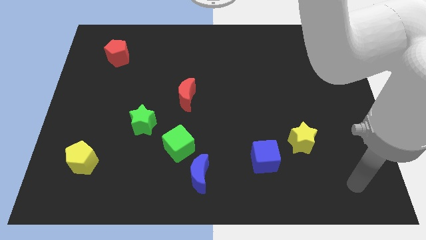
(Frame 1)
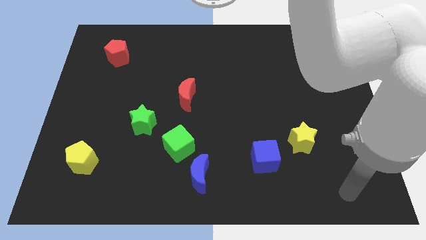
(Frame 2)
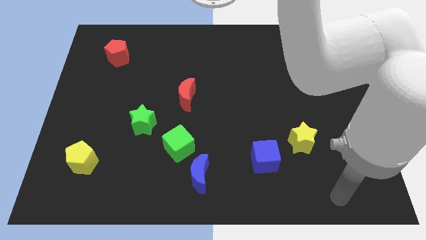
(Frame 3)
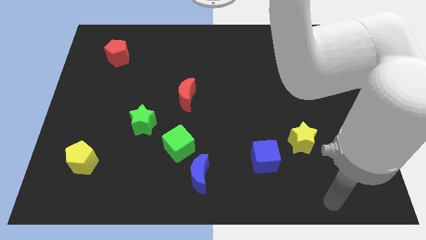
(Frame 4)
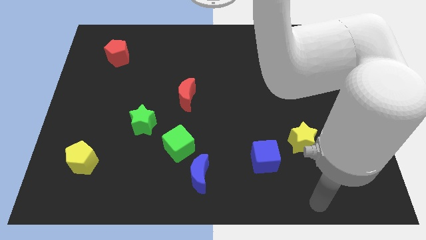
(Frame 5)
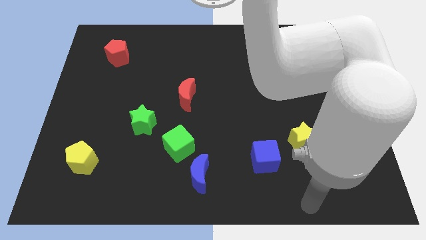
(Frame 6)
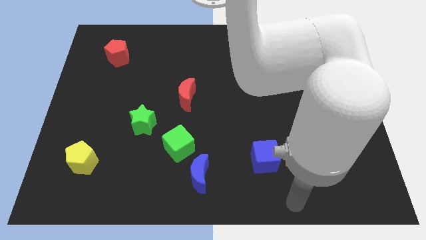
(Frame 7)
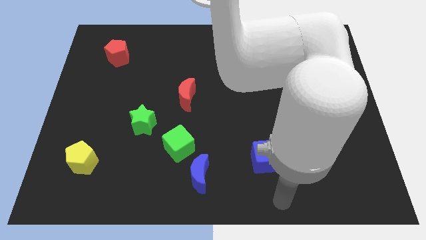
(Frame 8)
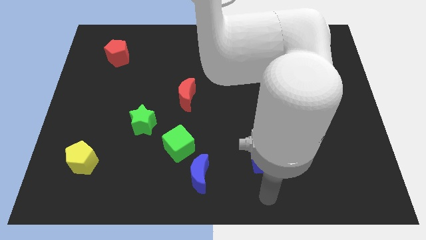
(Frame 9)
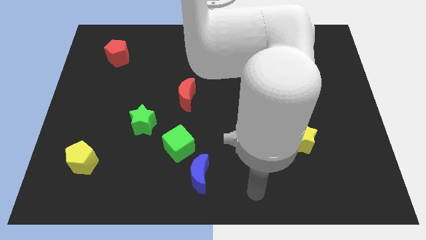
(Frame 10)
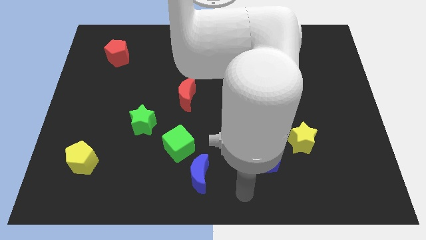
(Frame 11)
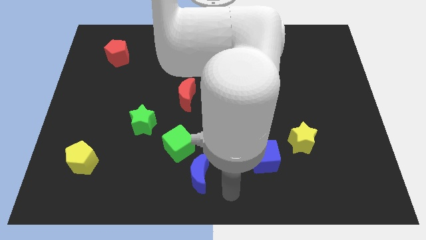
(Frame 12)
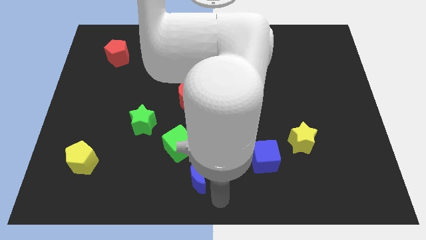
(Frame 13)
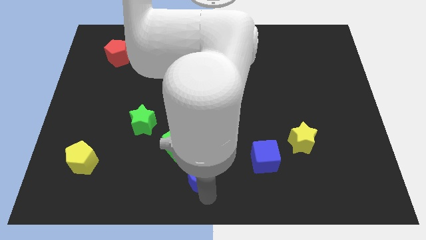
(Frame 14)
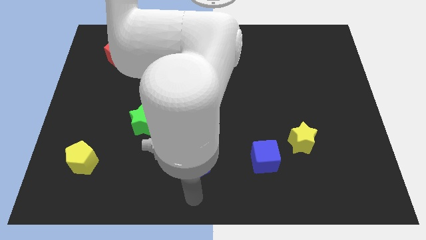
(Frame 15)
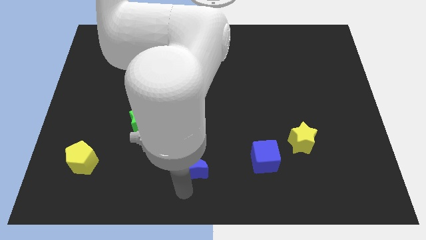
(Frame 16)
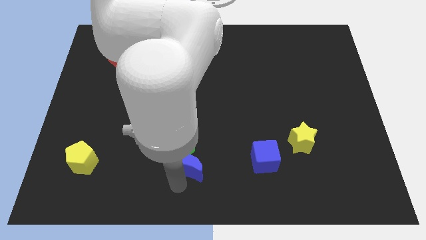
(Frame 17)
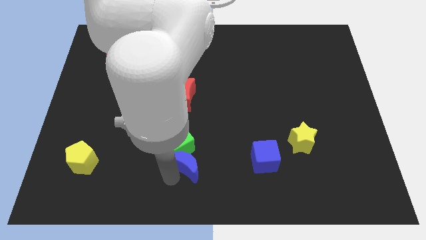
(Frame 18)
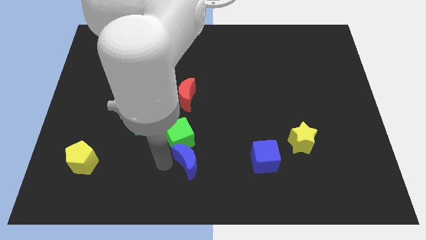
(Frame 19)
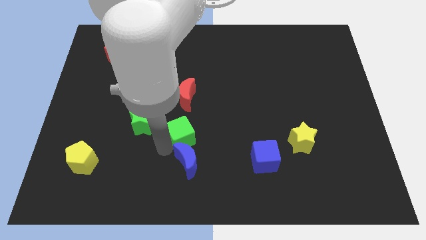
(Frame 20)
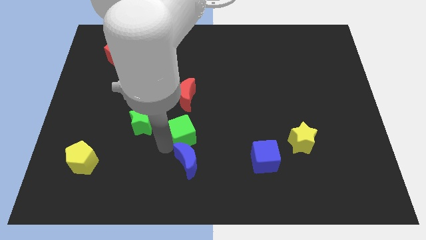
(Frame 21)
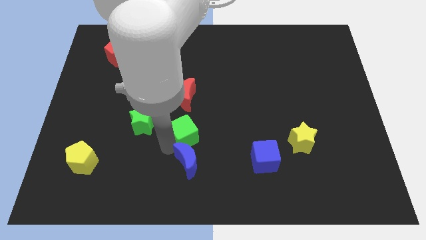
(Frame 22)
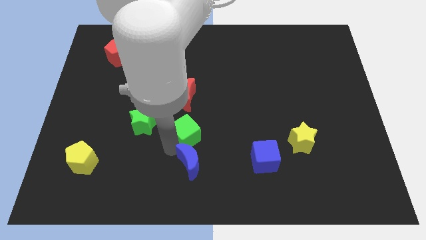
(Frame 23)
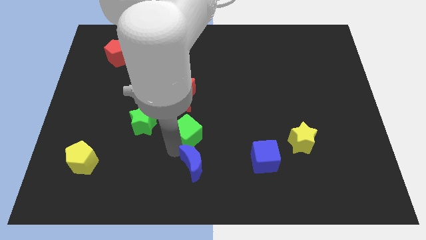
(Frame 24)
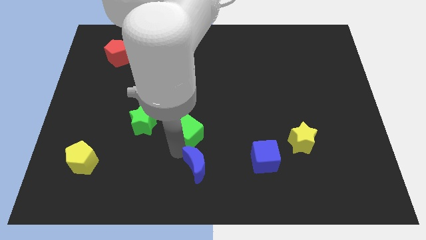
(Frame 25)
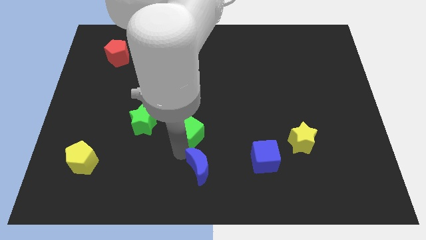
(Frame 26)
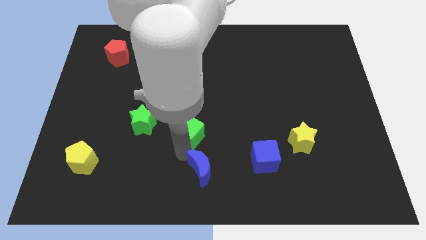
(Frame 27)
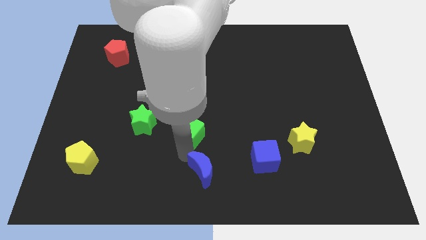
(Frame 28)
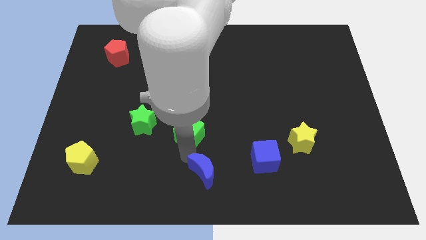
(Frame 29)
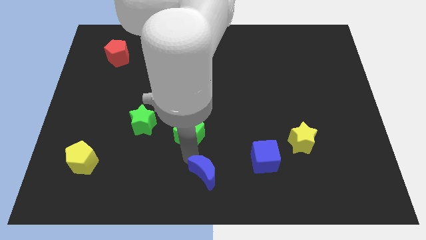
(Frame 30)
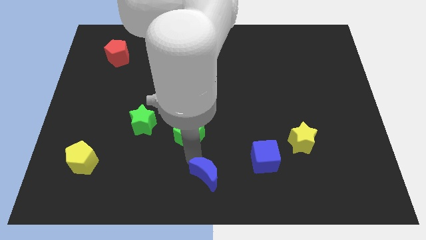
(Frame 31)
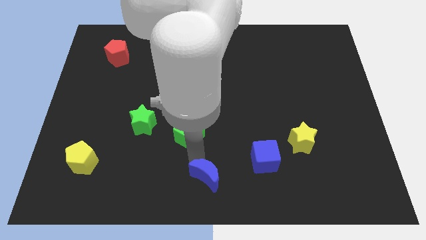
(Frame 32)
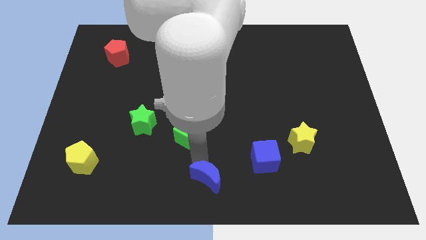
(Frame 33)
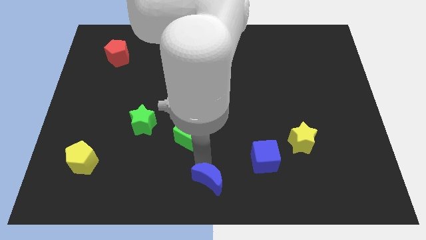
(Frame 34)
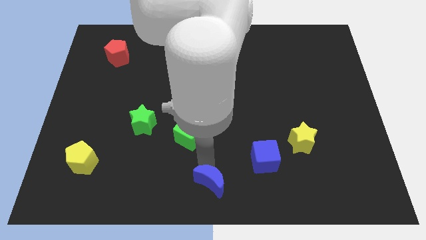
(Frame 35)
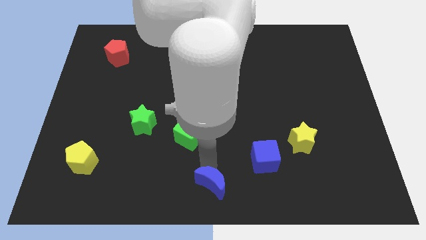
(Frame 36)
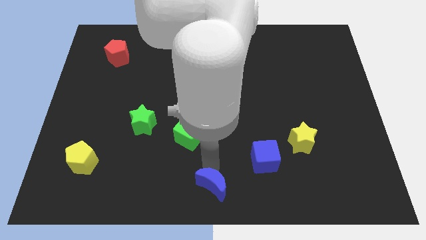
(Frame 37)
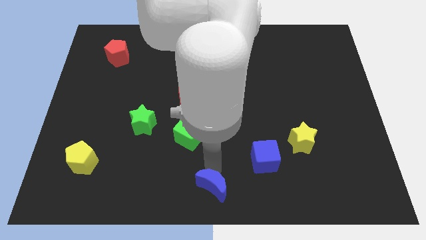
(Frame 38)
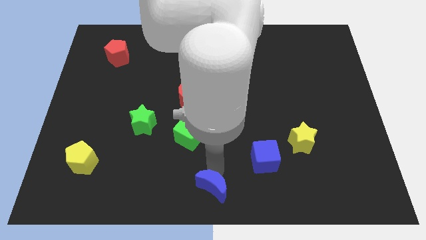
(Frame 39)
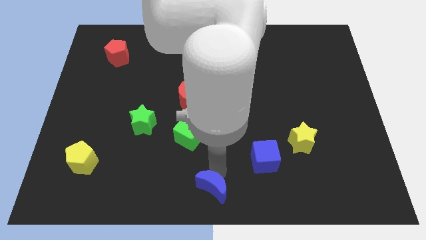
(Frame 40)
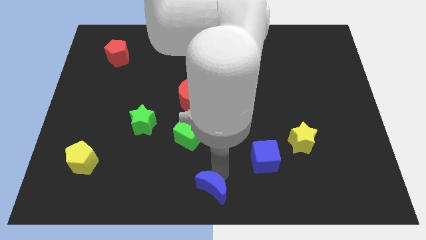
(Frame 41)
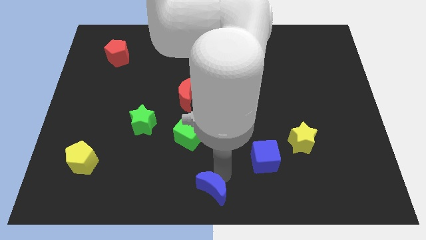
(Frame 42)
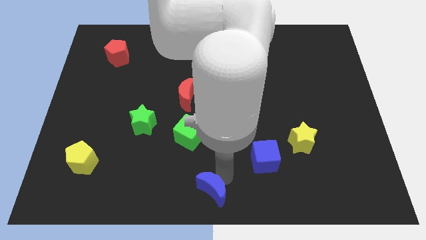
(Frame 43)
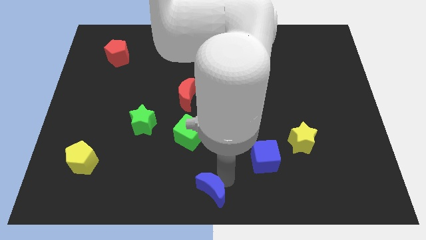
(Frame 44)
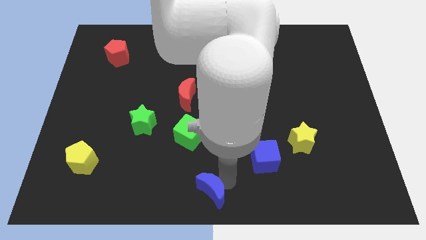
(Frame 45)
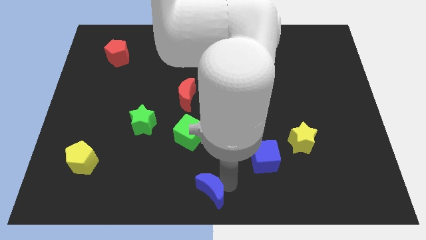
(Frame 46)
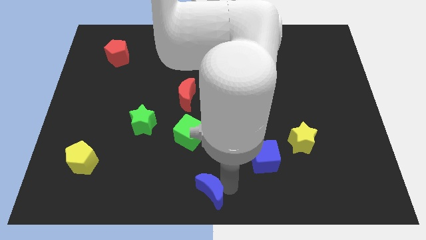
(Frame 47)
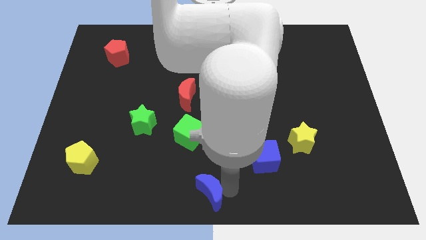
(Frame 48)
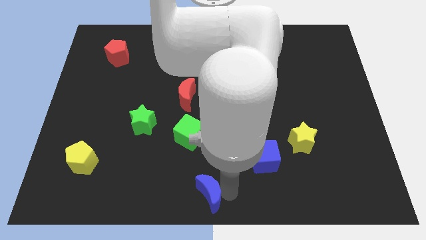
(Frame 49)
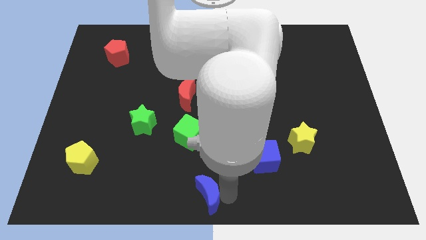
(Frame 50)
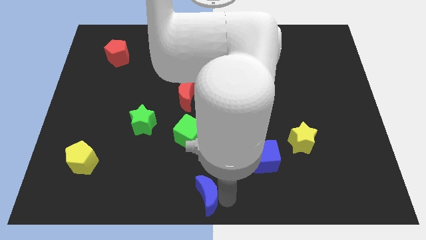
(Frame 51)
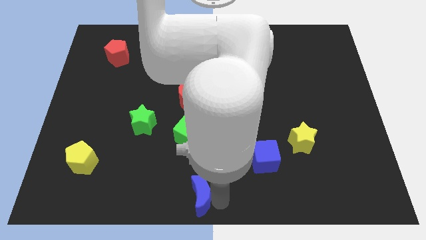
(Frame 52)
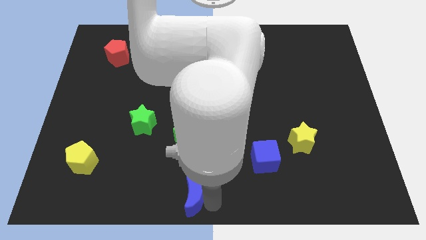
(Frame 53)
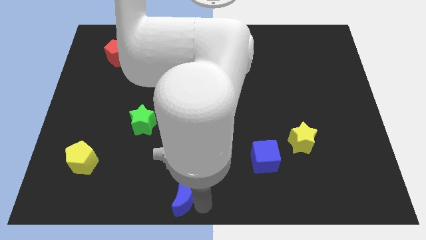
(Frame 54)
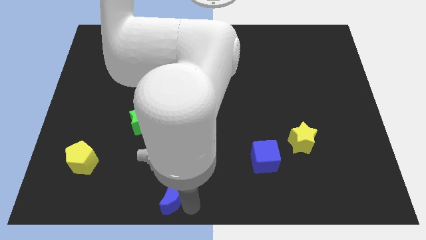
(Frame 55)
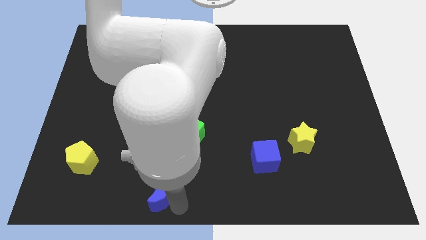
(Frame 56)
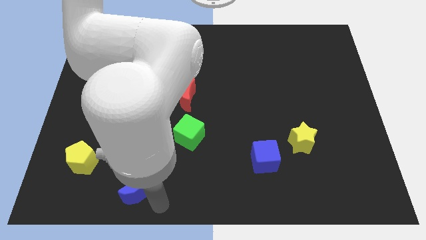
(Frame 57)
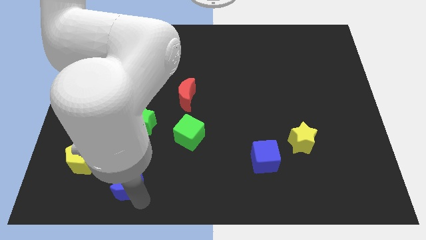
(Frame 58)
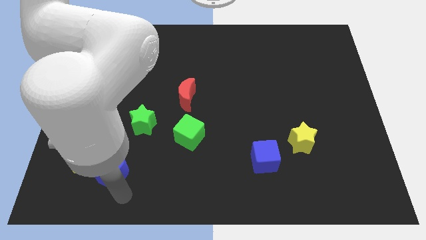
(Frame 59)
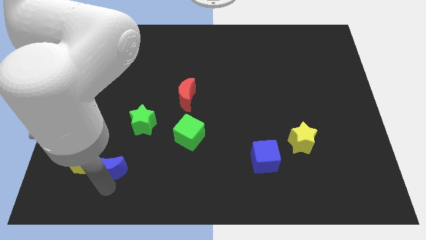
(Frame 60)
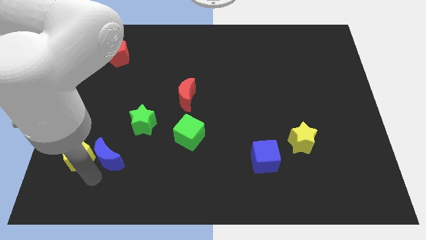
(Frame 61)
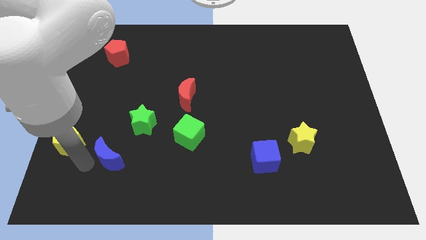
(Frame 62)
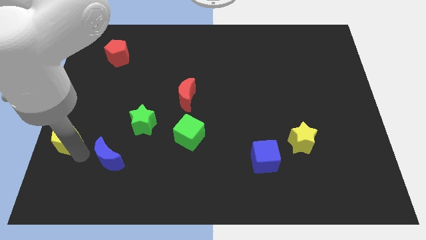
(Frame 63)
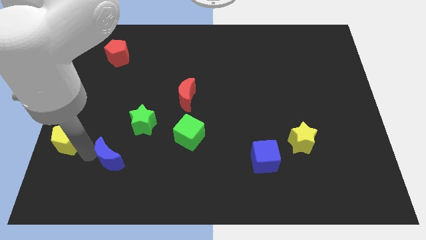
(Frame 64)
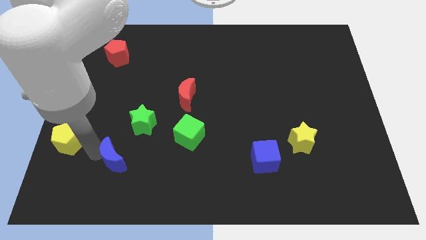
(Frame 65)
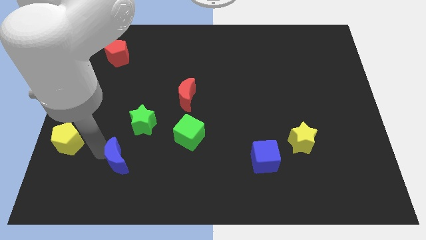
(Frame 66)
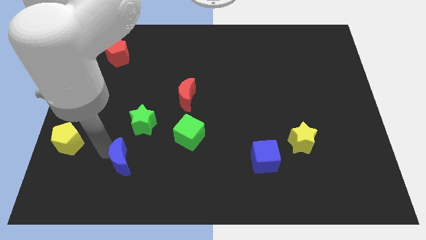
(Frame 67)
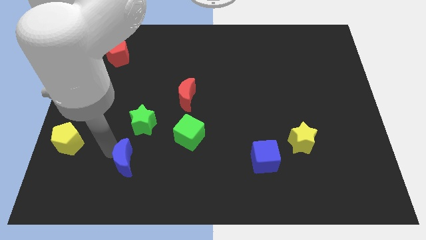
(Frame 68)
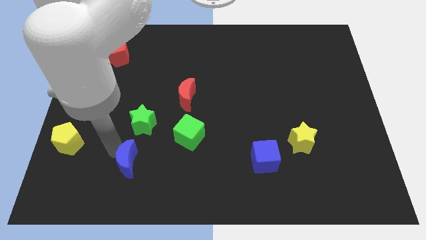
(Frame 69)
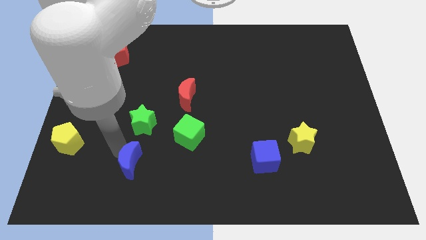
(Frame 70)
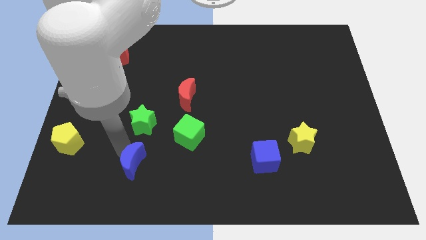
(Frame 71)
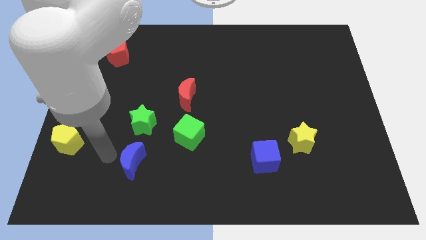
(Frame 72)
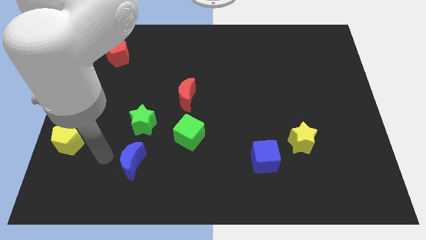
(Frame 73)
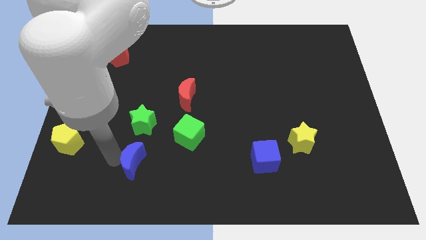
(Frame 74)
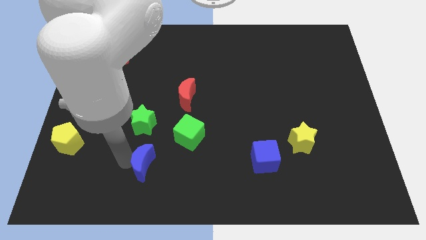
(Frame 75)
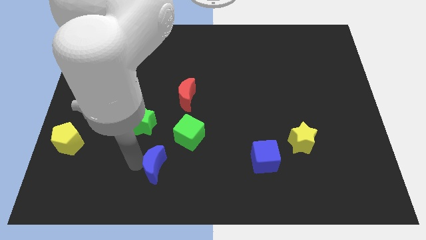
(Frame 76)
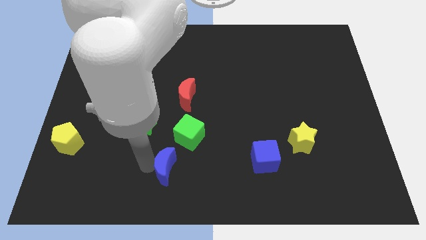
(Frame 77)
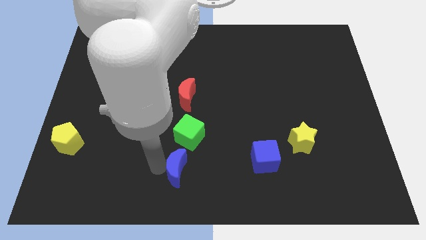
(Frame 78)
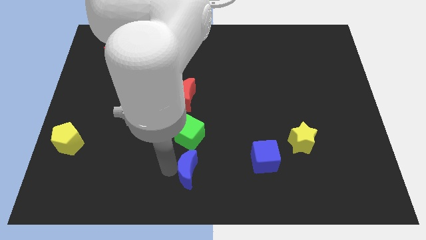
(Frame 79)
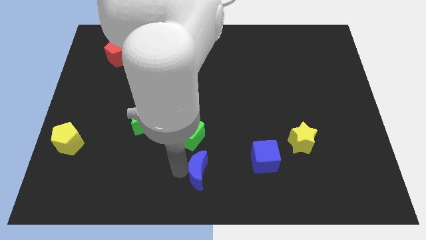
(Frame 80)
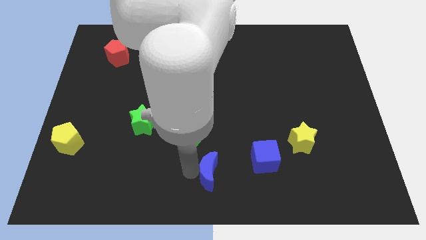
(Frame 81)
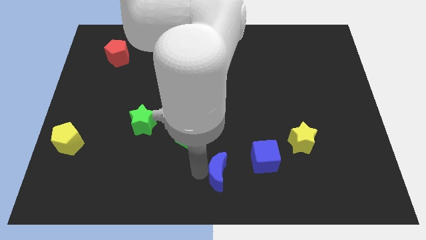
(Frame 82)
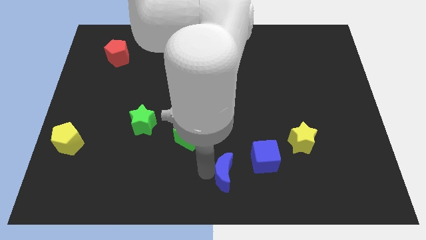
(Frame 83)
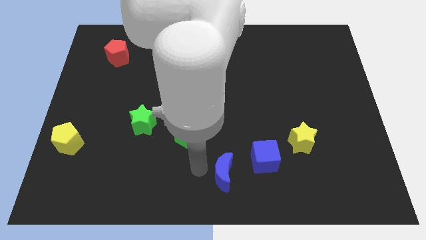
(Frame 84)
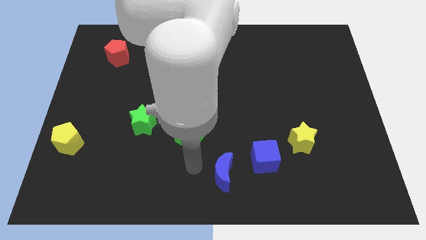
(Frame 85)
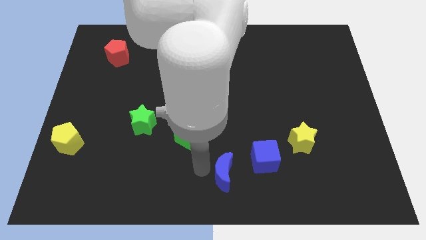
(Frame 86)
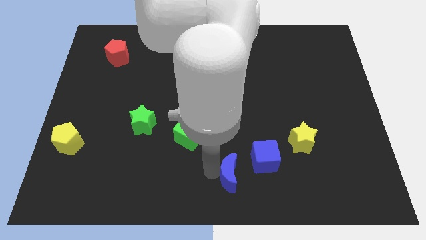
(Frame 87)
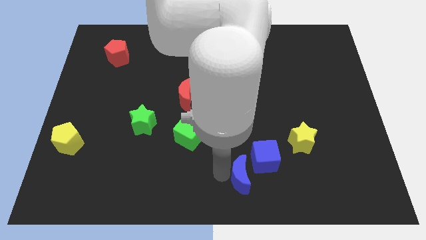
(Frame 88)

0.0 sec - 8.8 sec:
move the blue moon somewhat to the right
